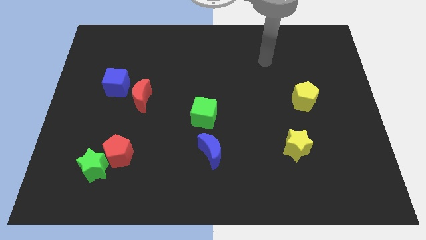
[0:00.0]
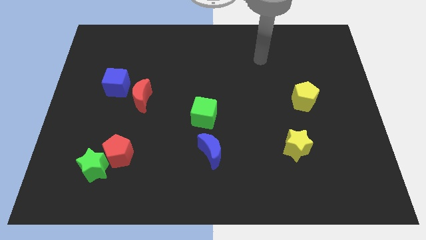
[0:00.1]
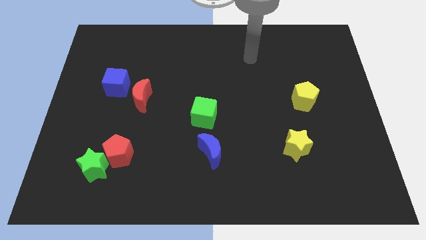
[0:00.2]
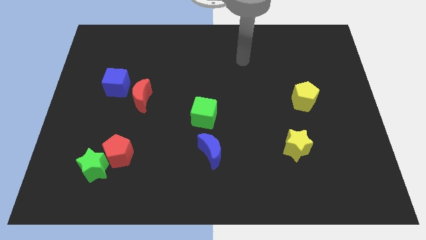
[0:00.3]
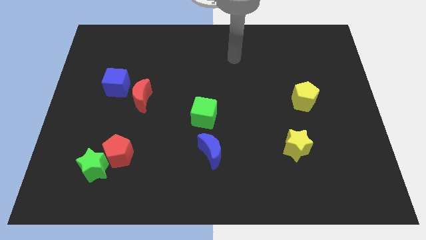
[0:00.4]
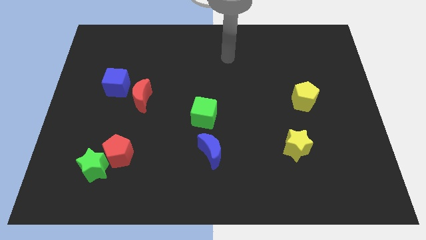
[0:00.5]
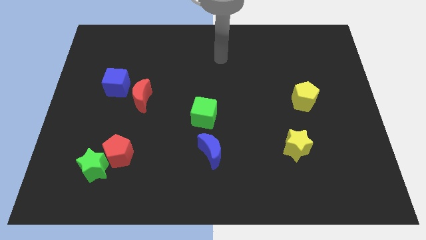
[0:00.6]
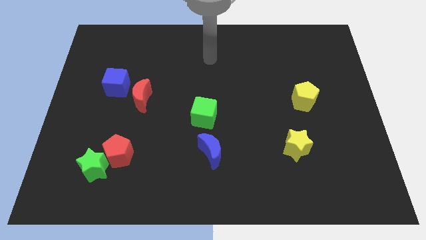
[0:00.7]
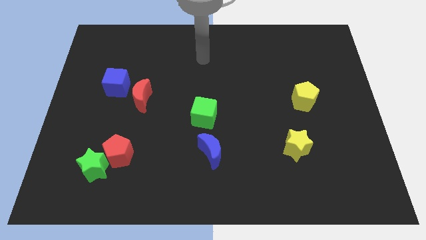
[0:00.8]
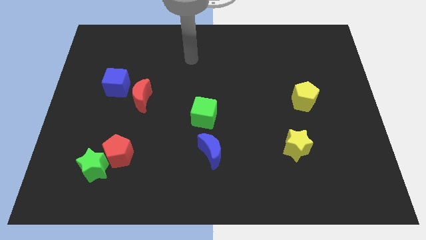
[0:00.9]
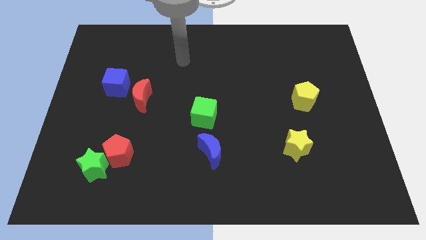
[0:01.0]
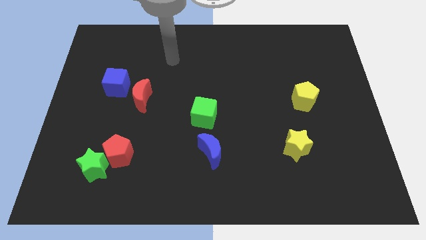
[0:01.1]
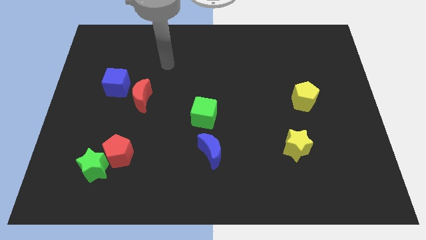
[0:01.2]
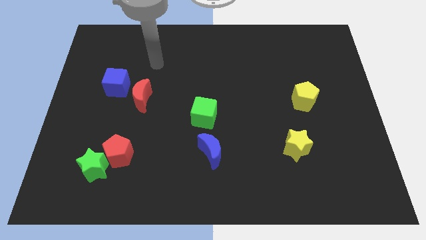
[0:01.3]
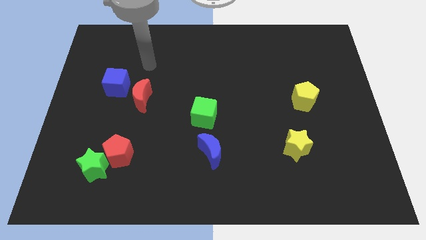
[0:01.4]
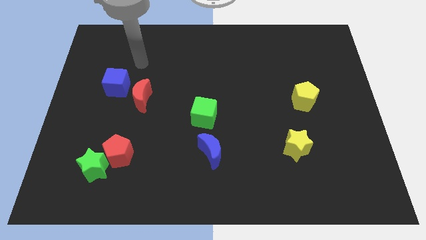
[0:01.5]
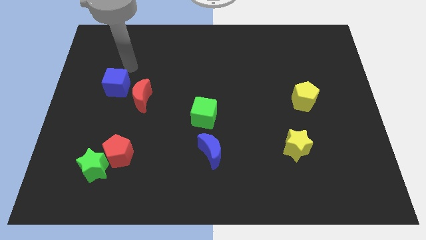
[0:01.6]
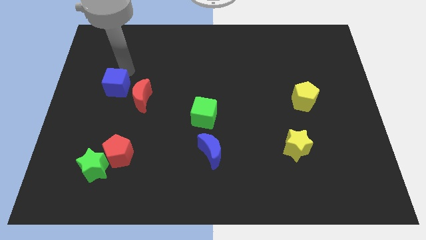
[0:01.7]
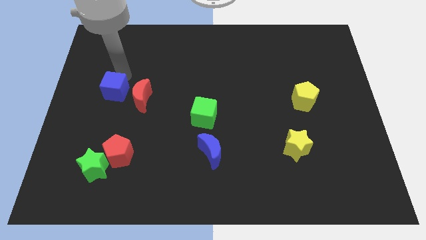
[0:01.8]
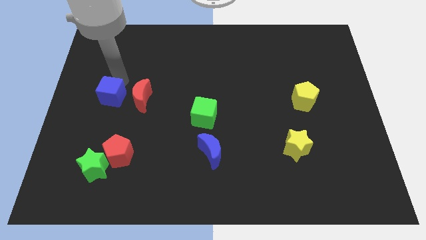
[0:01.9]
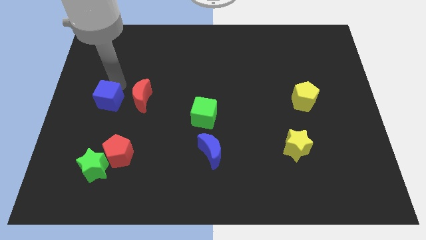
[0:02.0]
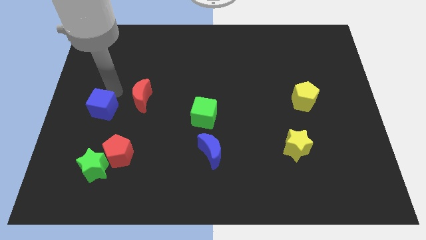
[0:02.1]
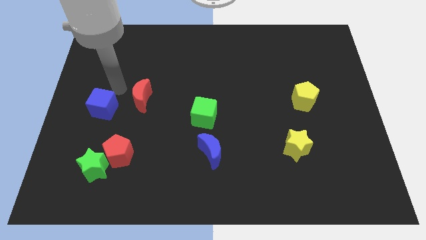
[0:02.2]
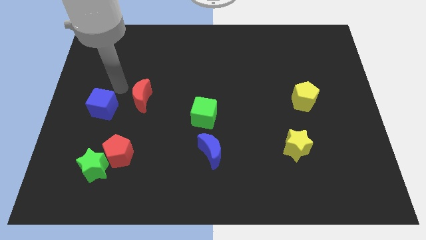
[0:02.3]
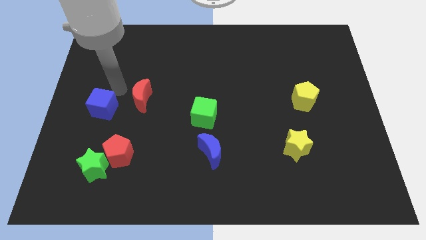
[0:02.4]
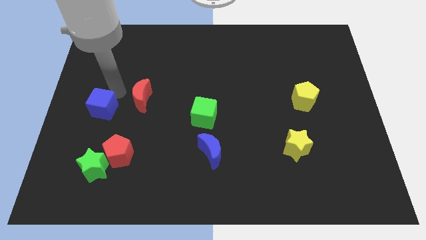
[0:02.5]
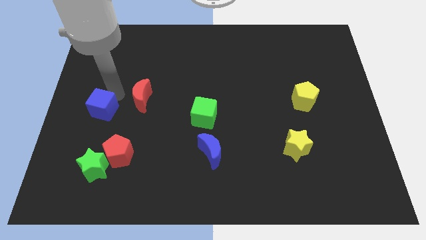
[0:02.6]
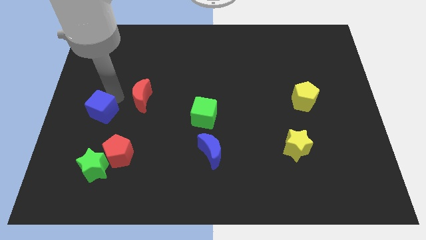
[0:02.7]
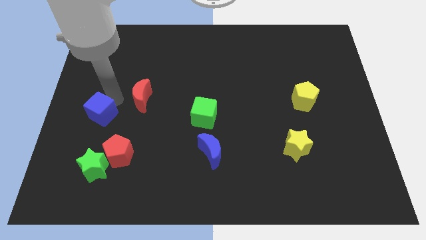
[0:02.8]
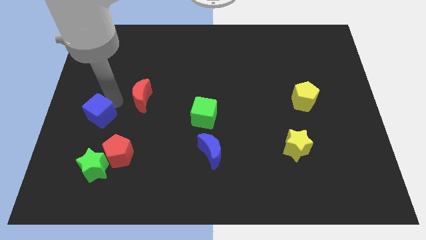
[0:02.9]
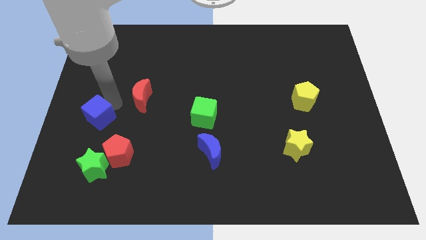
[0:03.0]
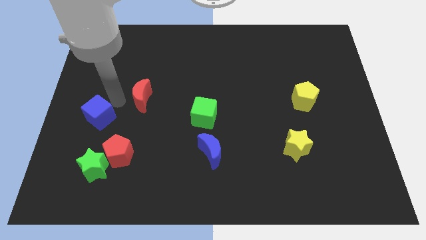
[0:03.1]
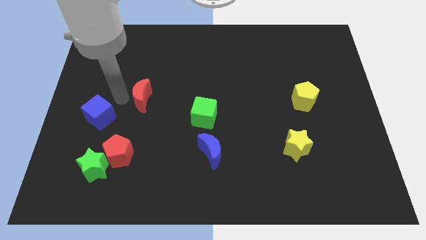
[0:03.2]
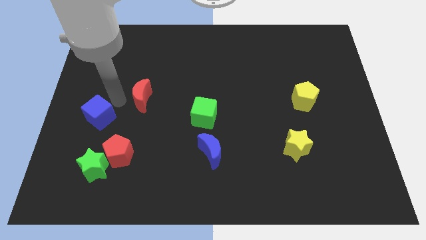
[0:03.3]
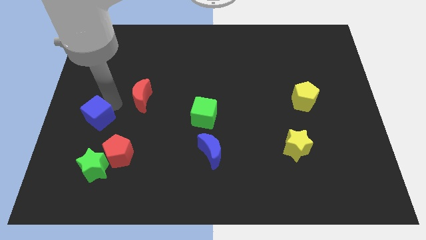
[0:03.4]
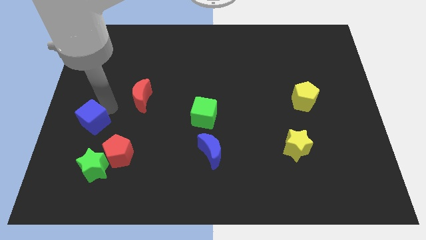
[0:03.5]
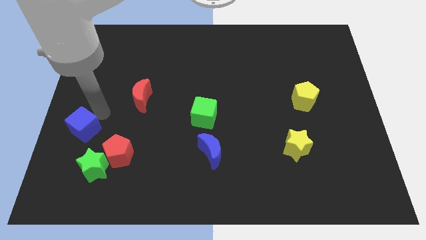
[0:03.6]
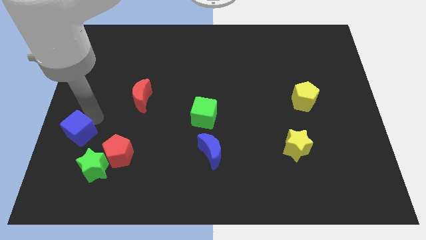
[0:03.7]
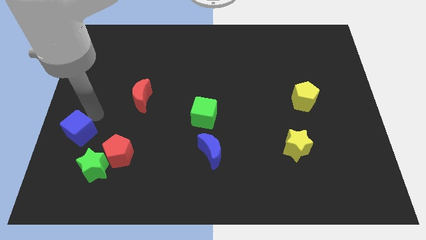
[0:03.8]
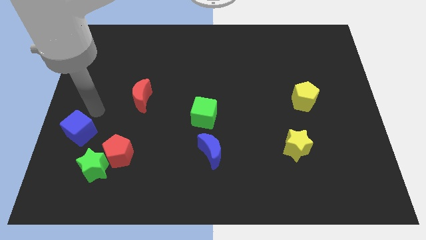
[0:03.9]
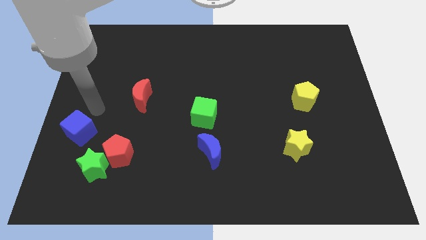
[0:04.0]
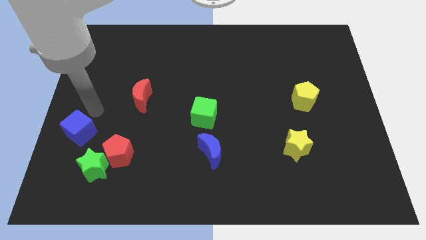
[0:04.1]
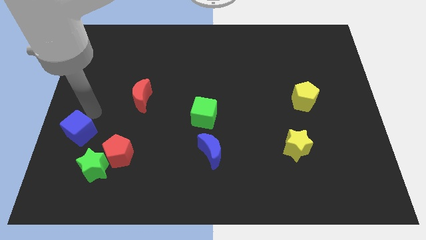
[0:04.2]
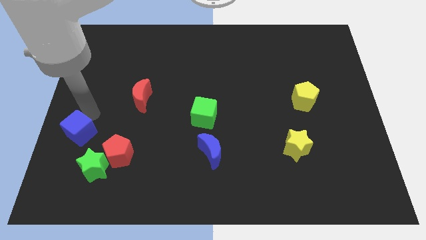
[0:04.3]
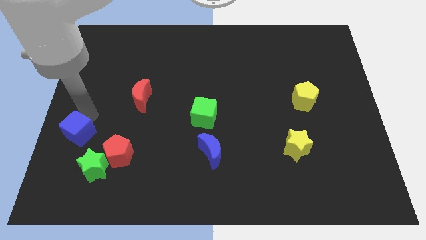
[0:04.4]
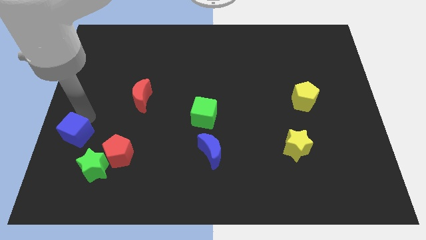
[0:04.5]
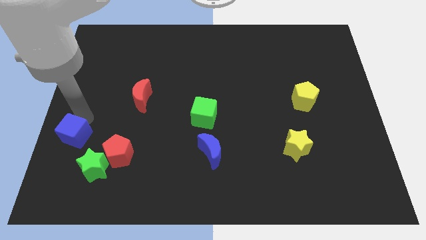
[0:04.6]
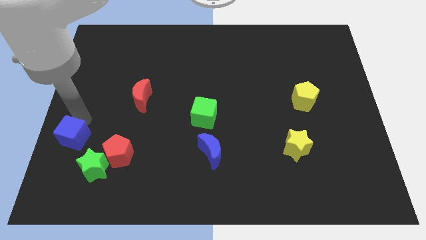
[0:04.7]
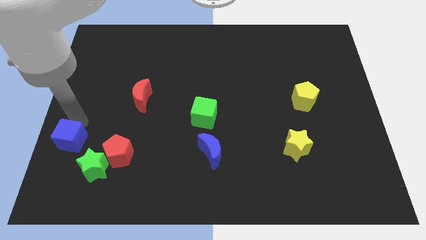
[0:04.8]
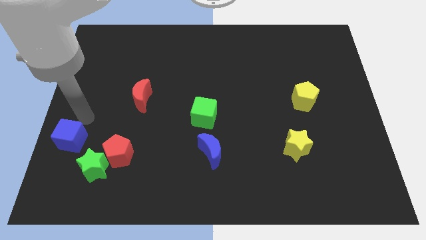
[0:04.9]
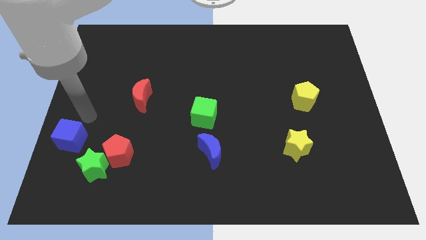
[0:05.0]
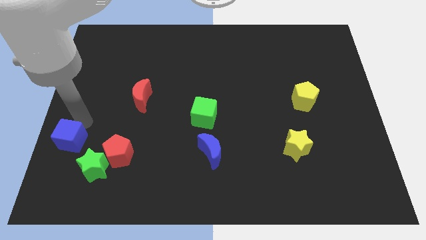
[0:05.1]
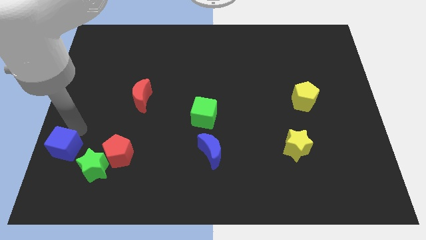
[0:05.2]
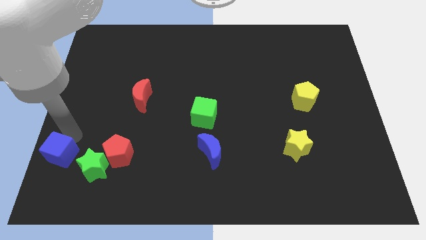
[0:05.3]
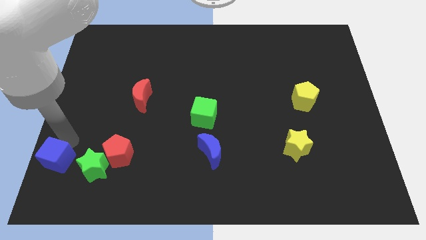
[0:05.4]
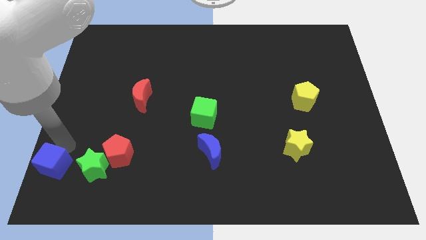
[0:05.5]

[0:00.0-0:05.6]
push the blue cube to the bottom left corner

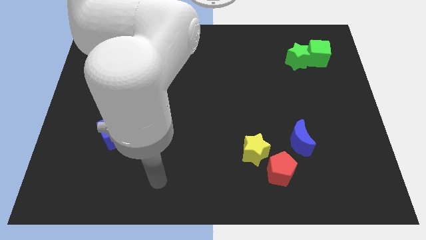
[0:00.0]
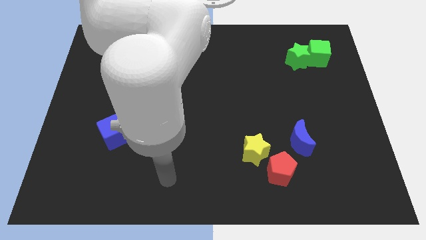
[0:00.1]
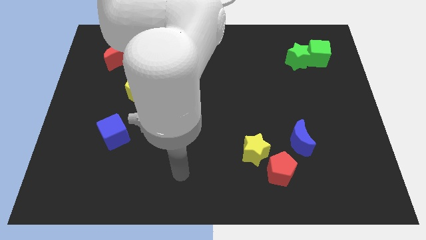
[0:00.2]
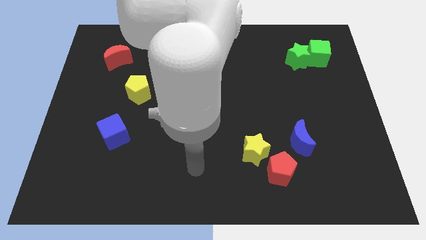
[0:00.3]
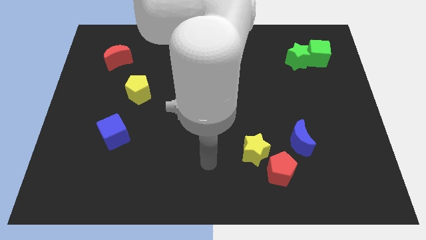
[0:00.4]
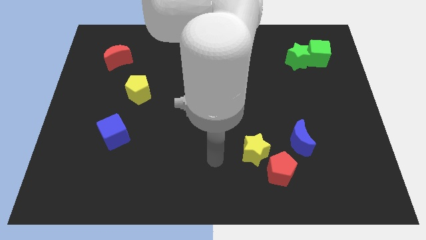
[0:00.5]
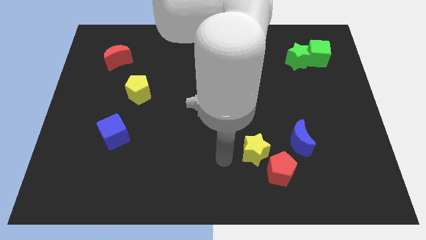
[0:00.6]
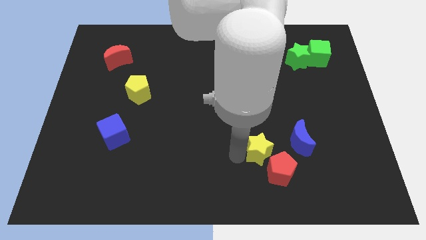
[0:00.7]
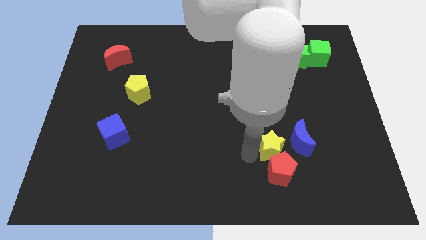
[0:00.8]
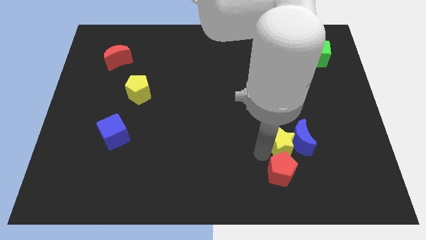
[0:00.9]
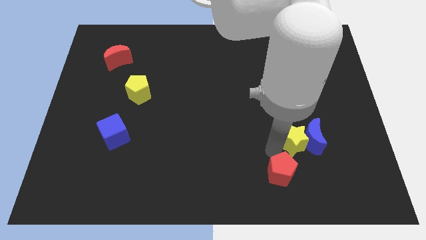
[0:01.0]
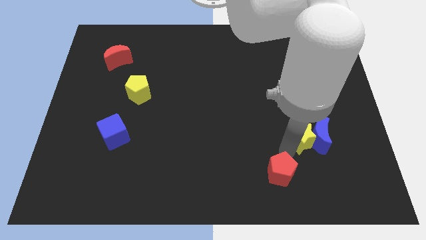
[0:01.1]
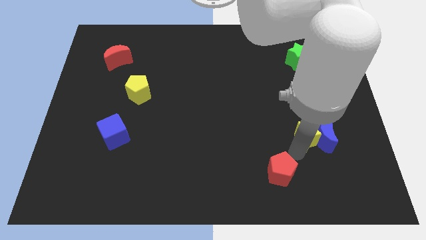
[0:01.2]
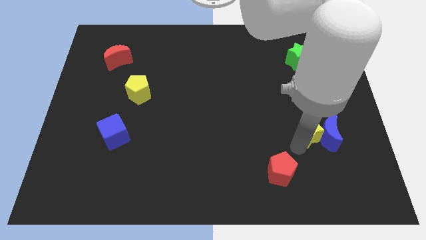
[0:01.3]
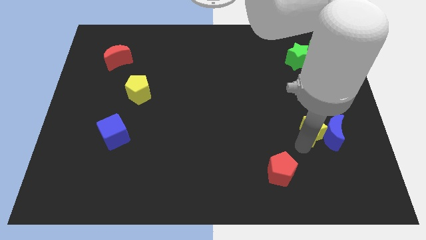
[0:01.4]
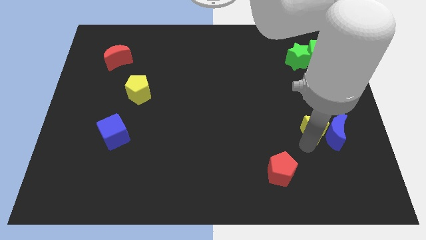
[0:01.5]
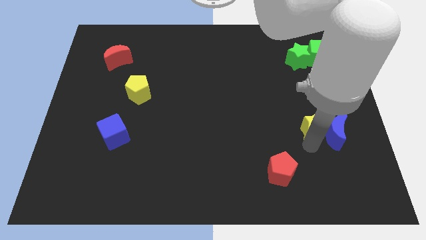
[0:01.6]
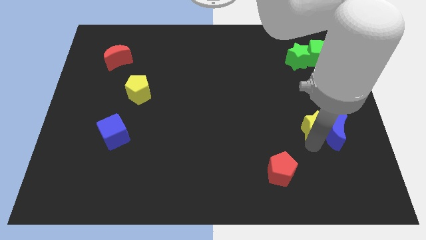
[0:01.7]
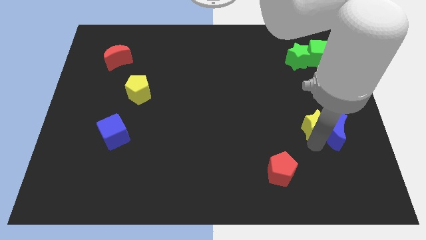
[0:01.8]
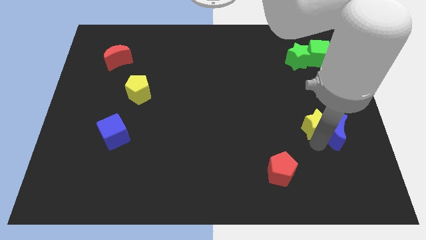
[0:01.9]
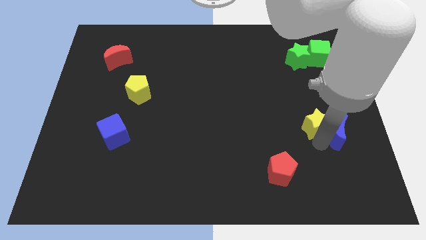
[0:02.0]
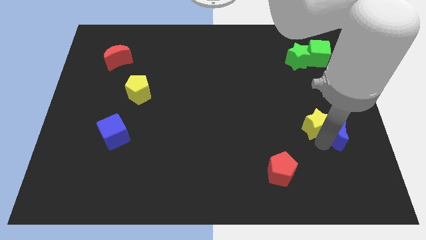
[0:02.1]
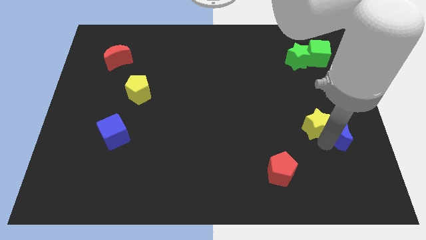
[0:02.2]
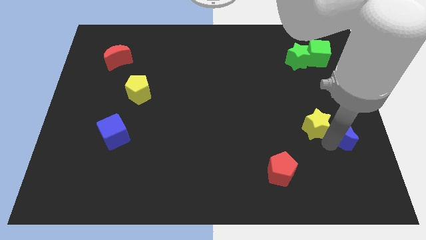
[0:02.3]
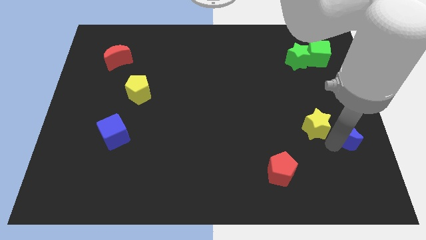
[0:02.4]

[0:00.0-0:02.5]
put the blue moon to the right side of the board
